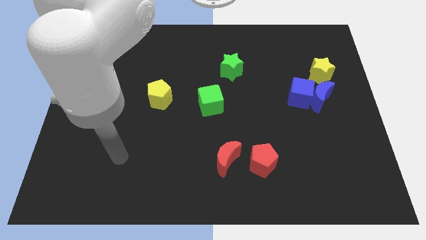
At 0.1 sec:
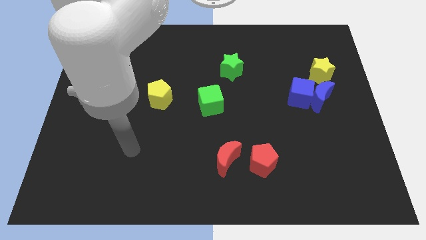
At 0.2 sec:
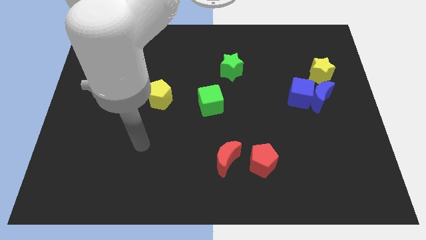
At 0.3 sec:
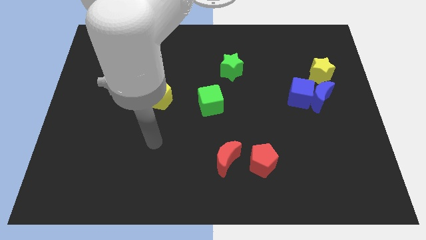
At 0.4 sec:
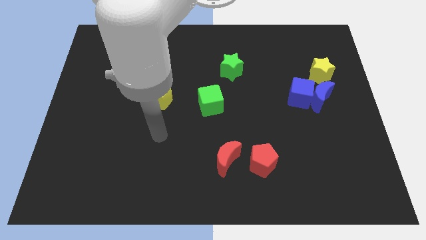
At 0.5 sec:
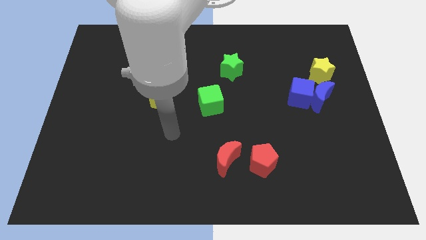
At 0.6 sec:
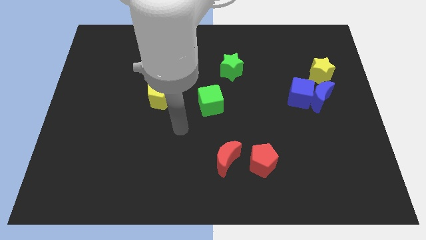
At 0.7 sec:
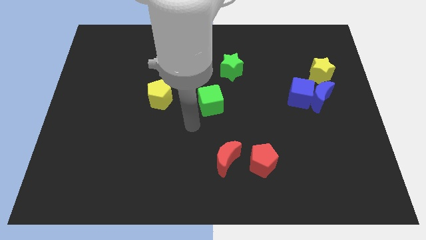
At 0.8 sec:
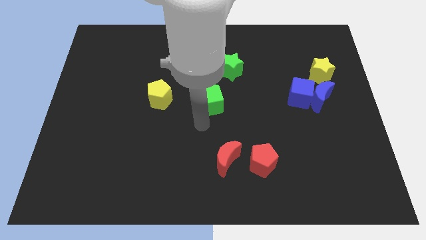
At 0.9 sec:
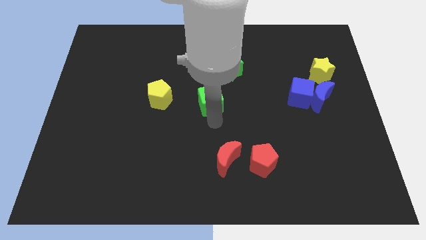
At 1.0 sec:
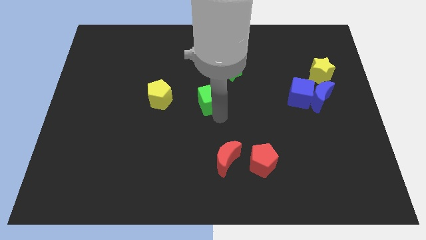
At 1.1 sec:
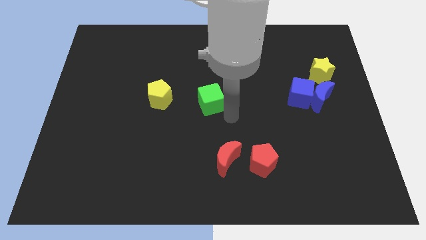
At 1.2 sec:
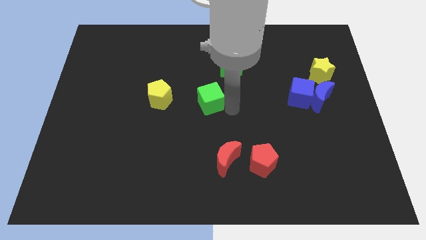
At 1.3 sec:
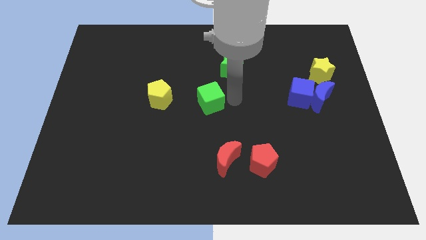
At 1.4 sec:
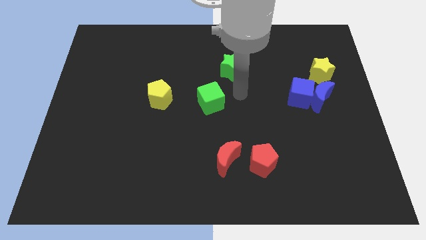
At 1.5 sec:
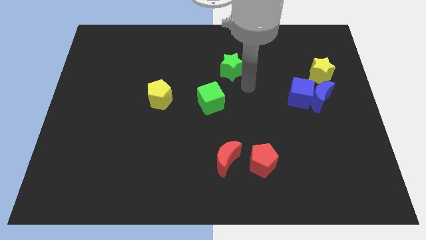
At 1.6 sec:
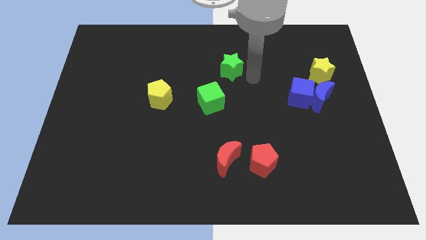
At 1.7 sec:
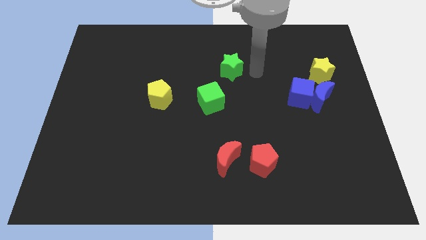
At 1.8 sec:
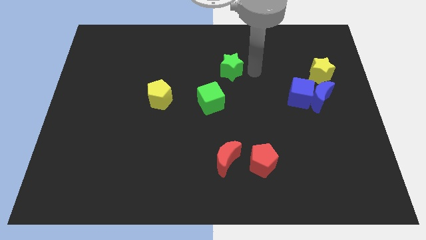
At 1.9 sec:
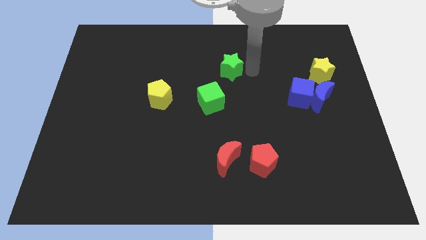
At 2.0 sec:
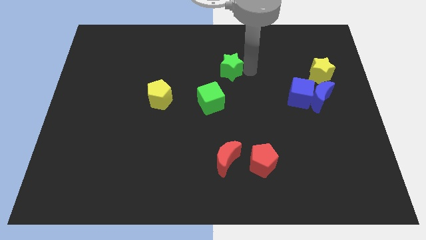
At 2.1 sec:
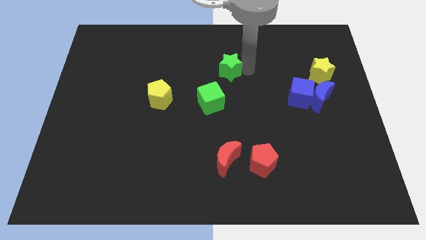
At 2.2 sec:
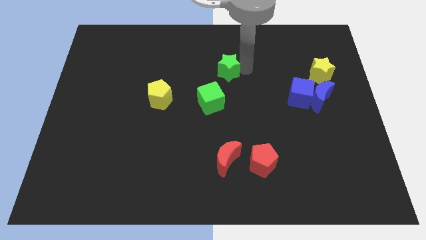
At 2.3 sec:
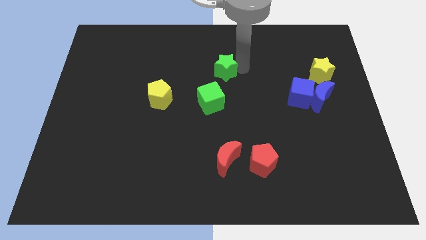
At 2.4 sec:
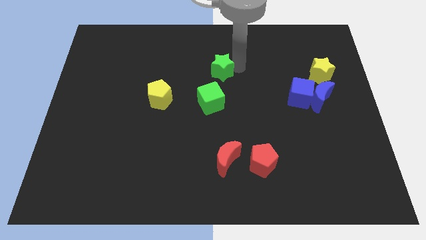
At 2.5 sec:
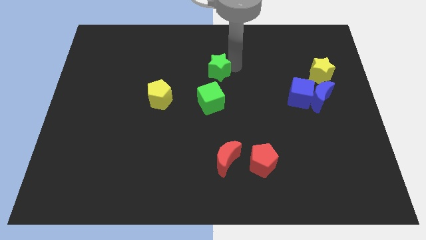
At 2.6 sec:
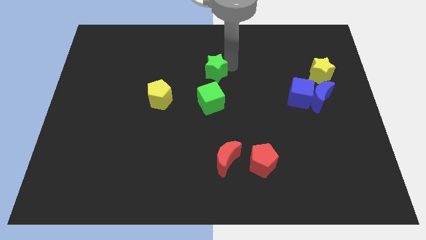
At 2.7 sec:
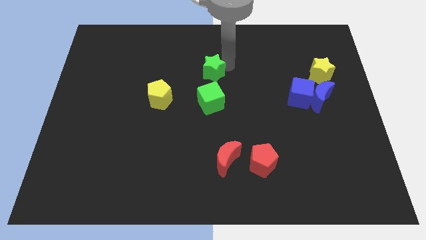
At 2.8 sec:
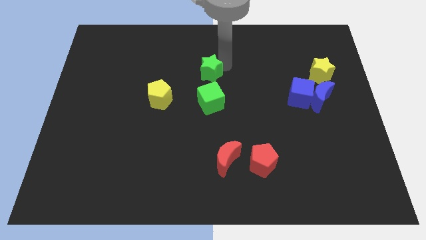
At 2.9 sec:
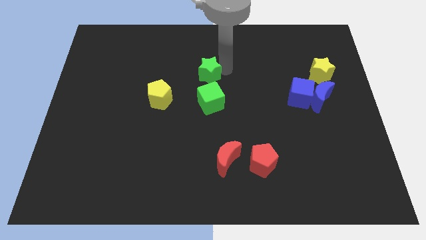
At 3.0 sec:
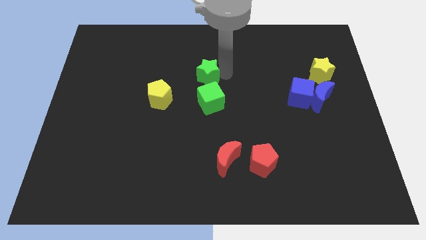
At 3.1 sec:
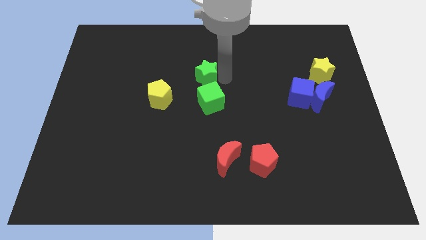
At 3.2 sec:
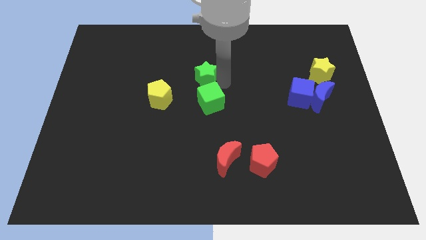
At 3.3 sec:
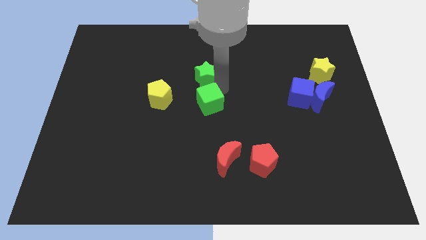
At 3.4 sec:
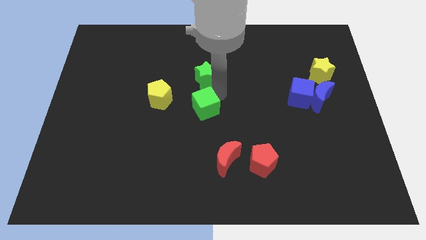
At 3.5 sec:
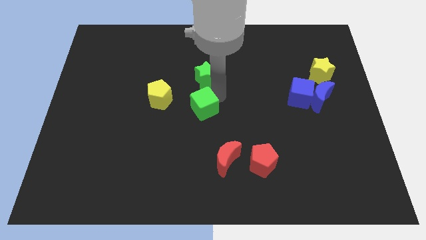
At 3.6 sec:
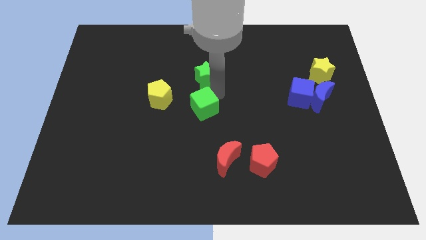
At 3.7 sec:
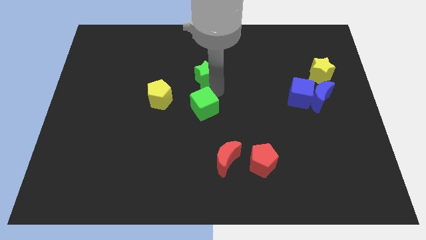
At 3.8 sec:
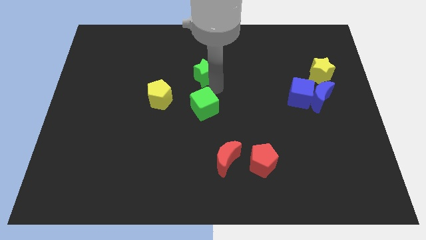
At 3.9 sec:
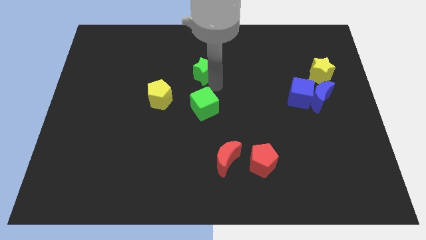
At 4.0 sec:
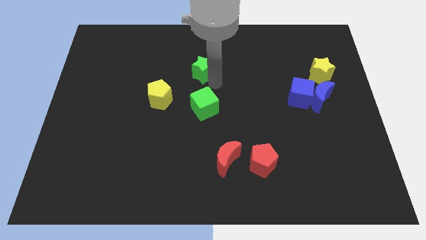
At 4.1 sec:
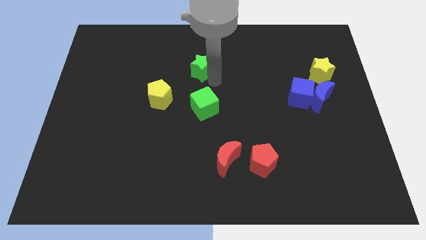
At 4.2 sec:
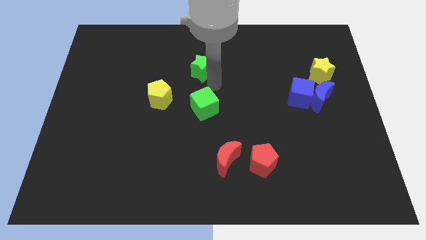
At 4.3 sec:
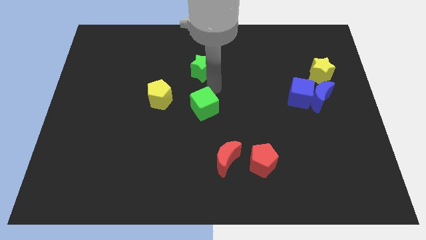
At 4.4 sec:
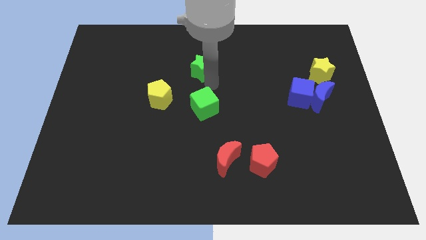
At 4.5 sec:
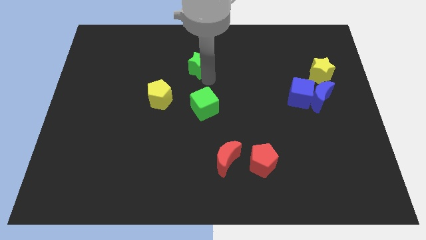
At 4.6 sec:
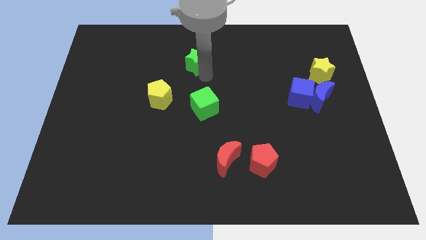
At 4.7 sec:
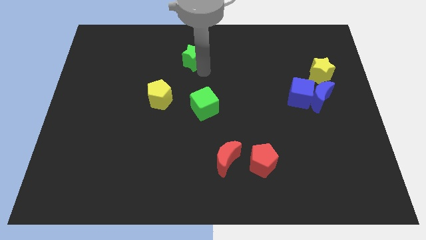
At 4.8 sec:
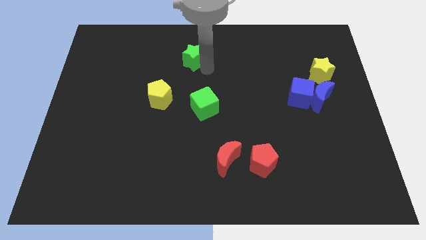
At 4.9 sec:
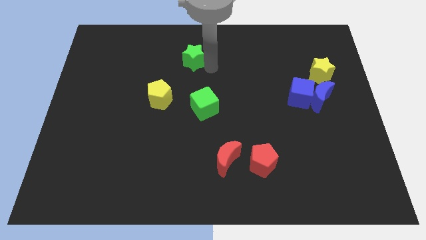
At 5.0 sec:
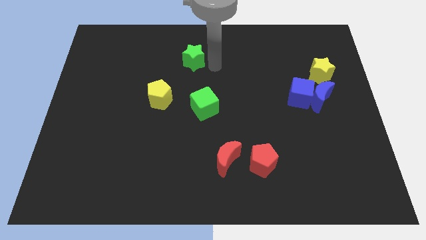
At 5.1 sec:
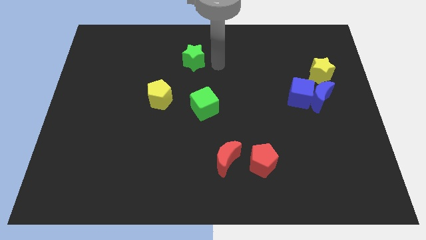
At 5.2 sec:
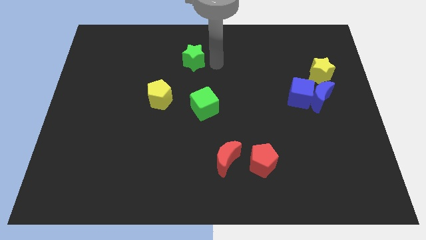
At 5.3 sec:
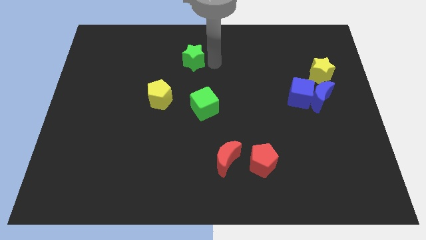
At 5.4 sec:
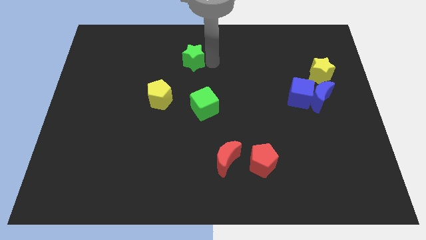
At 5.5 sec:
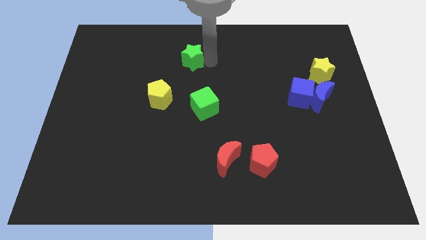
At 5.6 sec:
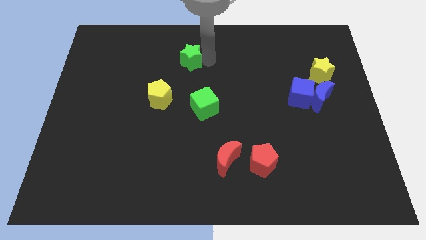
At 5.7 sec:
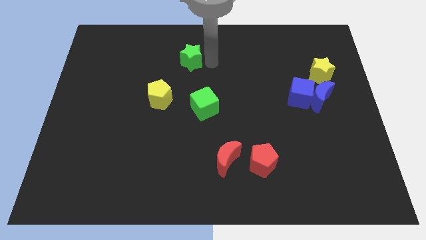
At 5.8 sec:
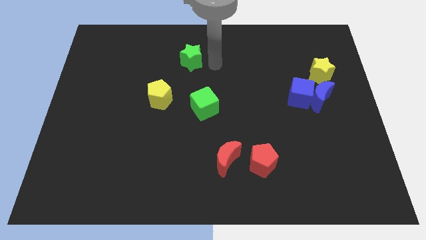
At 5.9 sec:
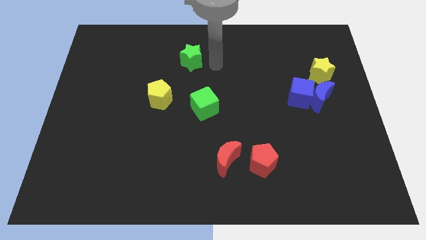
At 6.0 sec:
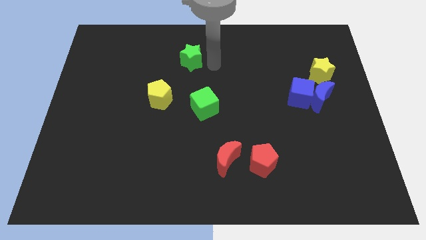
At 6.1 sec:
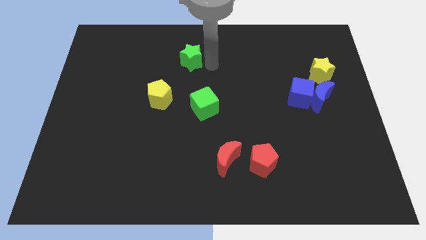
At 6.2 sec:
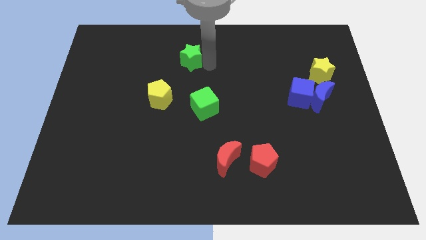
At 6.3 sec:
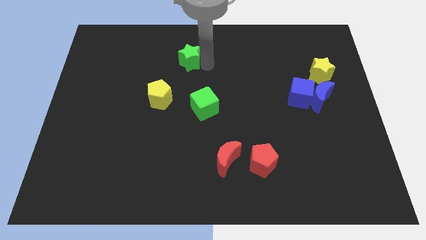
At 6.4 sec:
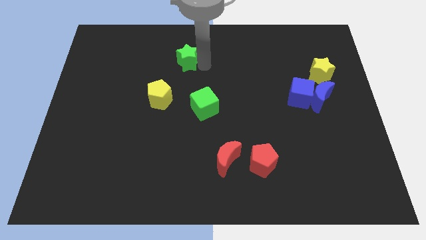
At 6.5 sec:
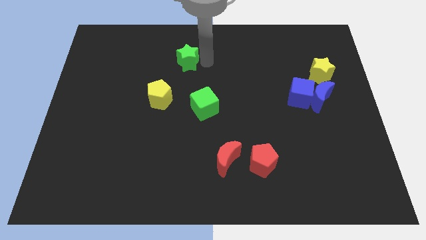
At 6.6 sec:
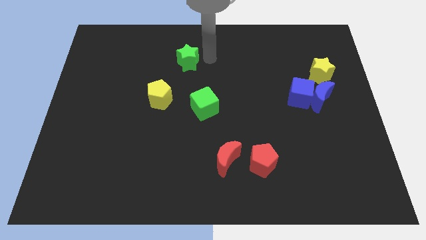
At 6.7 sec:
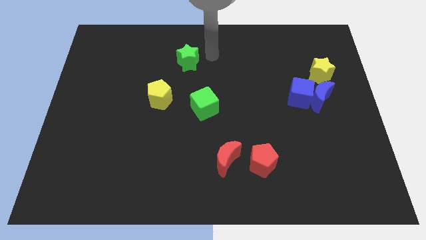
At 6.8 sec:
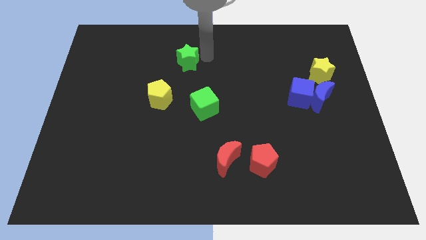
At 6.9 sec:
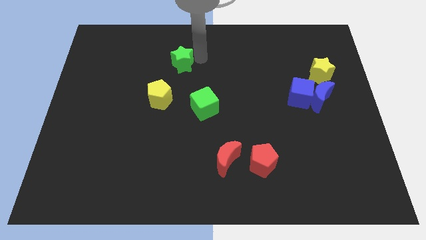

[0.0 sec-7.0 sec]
move the green star to the top side of the yellow pentagon
